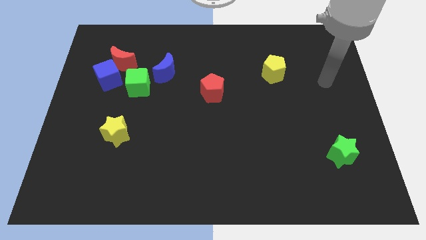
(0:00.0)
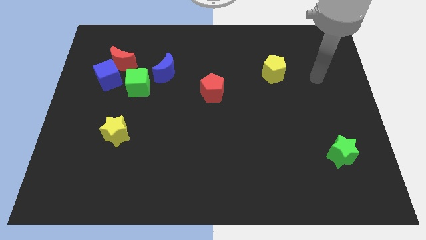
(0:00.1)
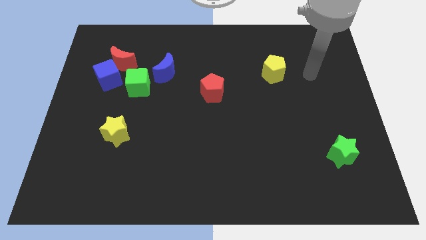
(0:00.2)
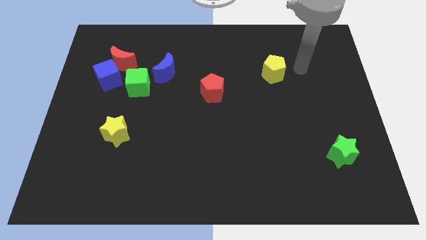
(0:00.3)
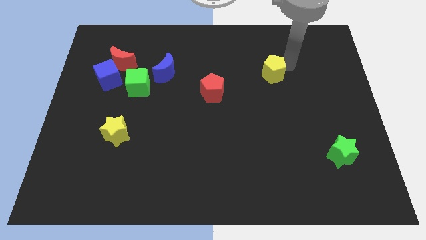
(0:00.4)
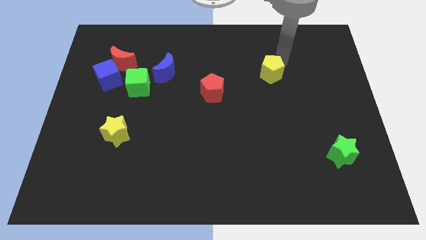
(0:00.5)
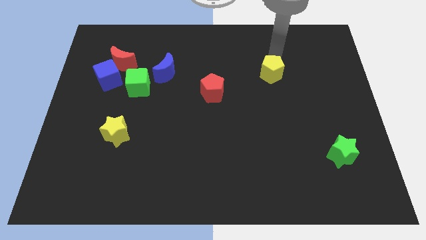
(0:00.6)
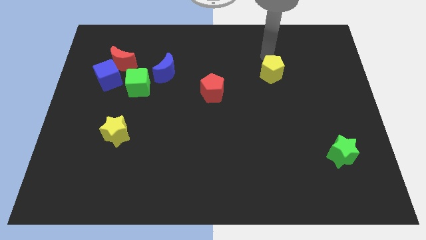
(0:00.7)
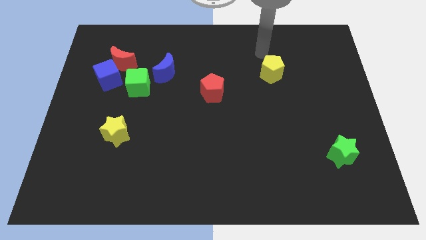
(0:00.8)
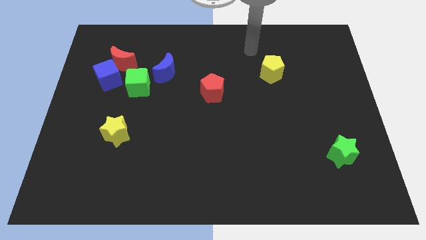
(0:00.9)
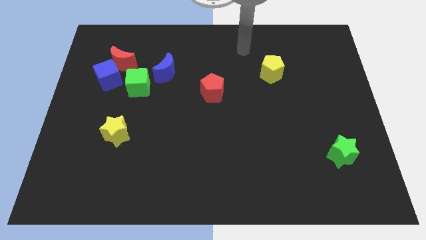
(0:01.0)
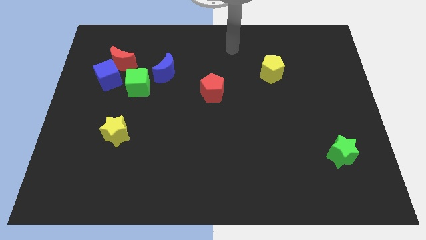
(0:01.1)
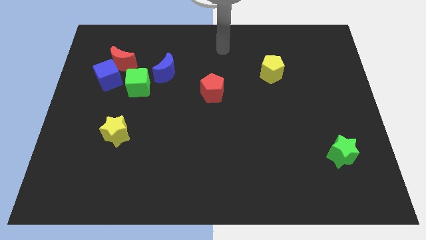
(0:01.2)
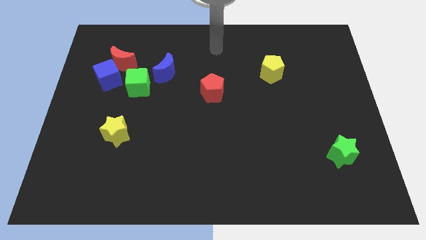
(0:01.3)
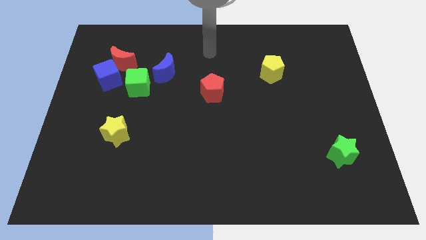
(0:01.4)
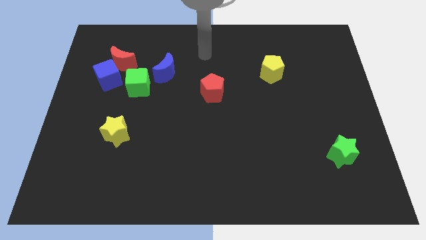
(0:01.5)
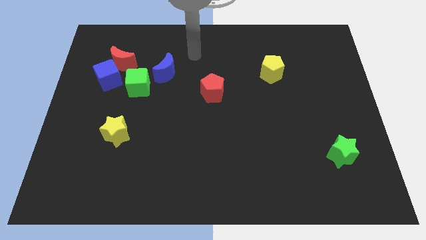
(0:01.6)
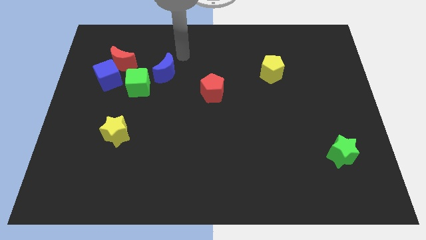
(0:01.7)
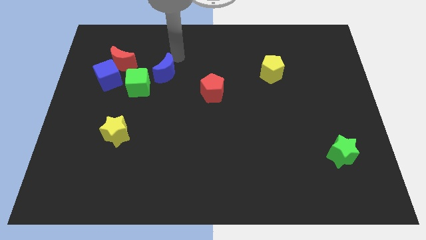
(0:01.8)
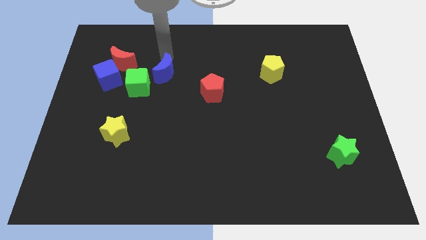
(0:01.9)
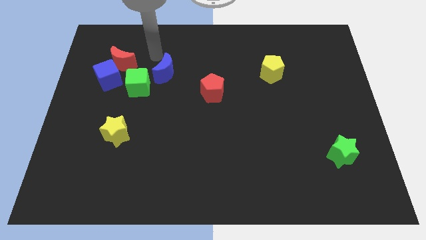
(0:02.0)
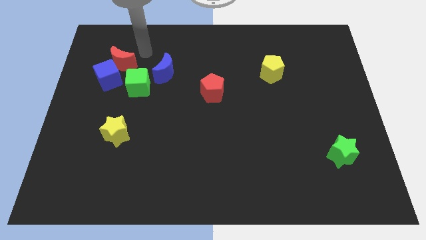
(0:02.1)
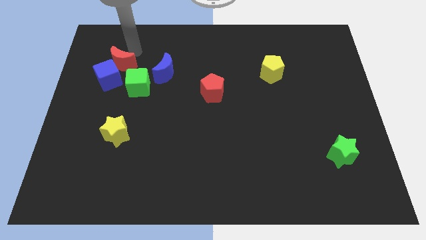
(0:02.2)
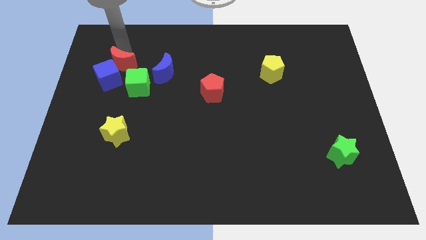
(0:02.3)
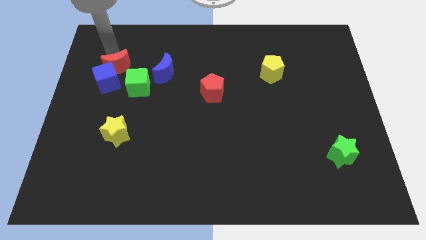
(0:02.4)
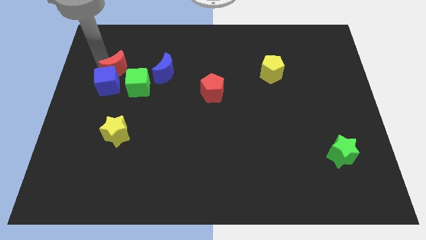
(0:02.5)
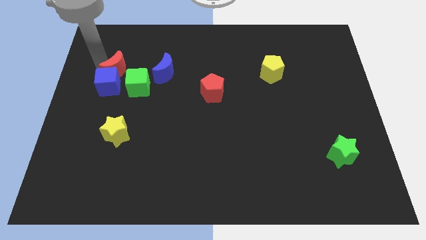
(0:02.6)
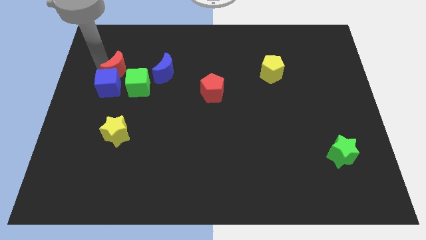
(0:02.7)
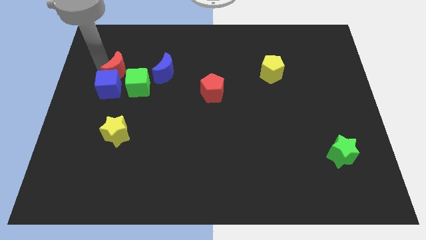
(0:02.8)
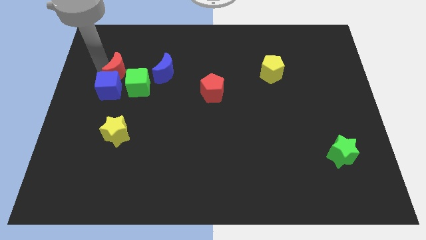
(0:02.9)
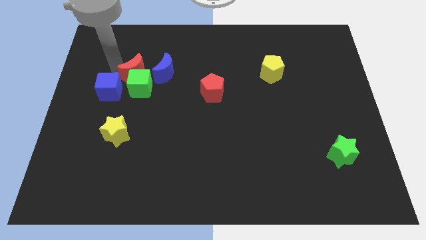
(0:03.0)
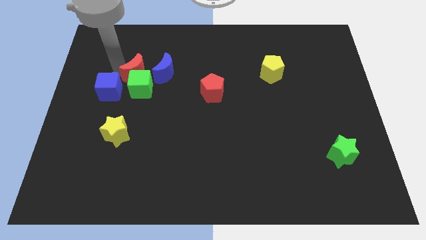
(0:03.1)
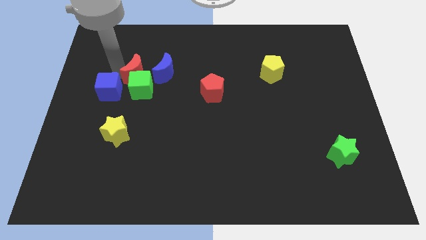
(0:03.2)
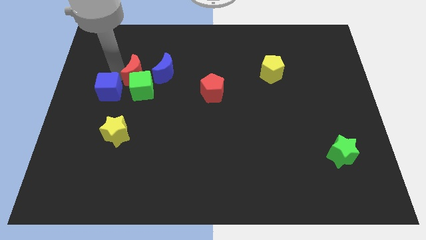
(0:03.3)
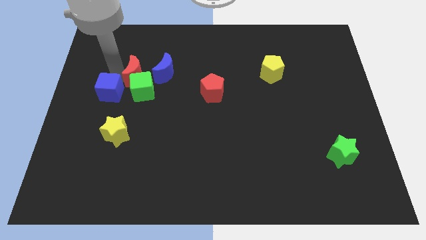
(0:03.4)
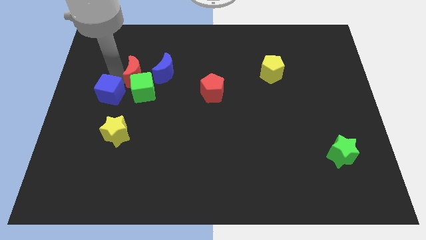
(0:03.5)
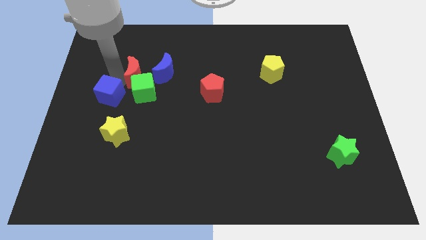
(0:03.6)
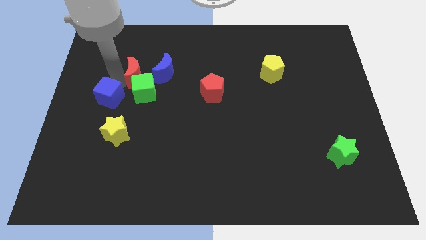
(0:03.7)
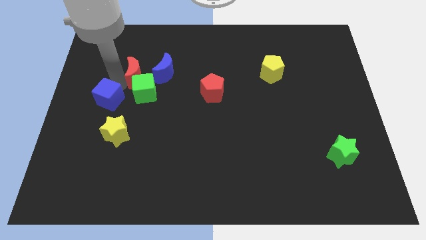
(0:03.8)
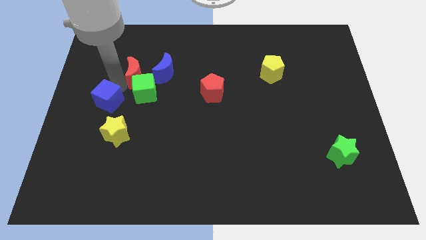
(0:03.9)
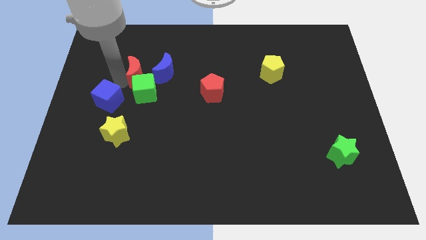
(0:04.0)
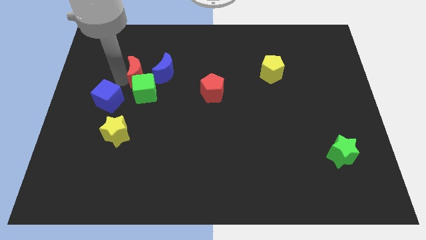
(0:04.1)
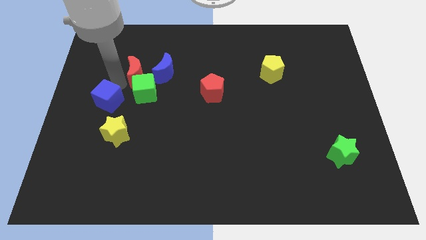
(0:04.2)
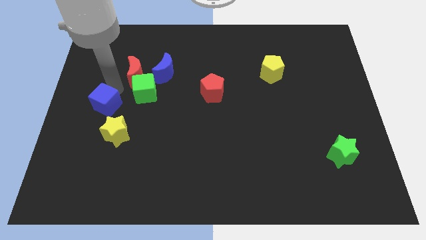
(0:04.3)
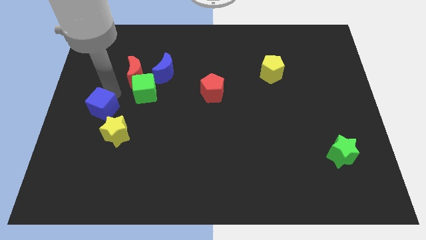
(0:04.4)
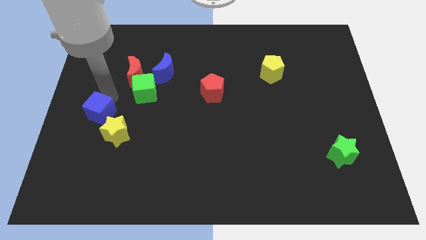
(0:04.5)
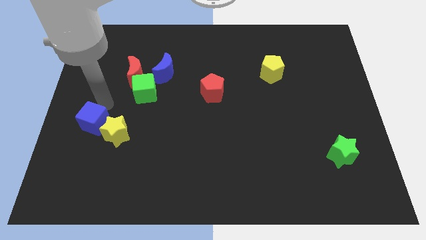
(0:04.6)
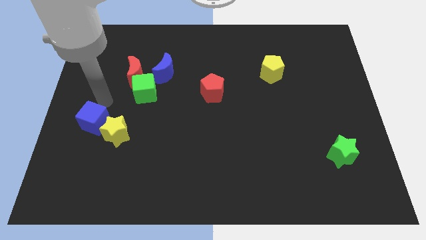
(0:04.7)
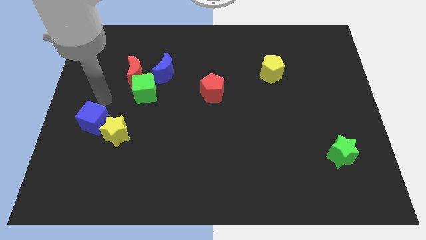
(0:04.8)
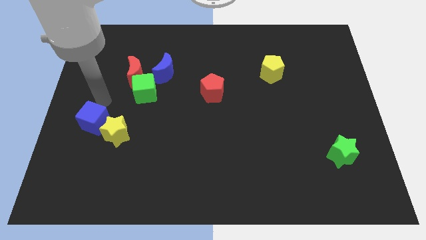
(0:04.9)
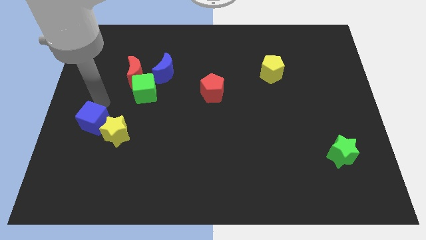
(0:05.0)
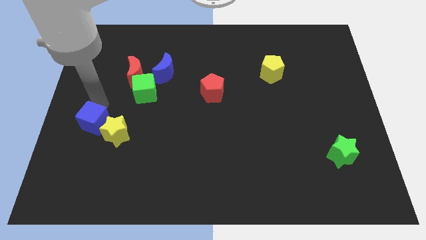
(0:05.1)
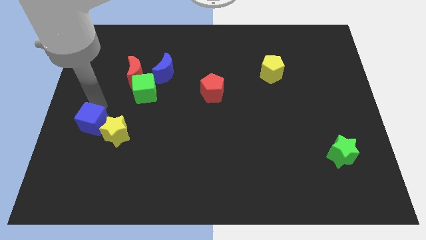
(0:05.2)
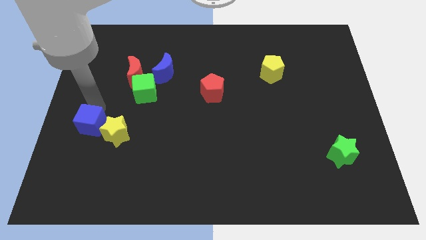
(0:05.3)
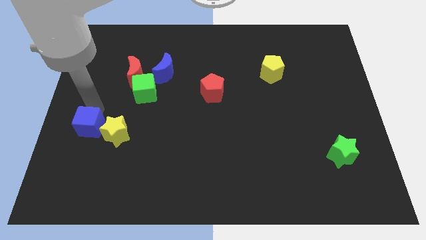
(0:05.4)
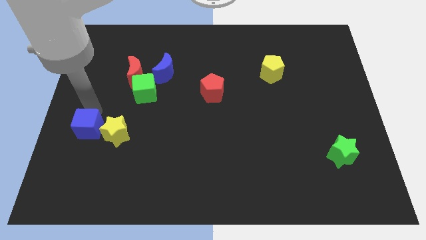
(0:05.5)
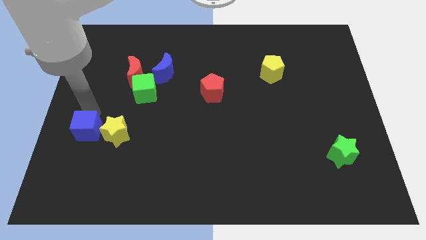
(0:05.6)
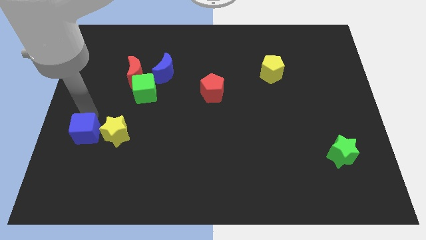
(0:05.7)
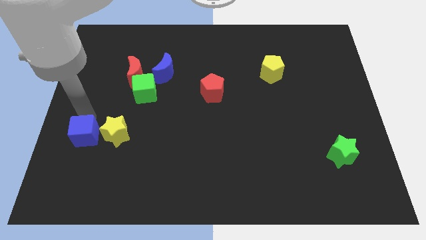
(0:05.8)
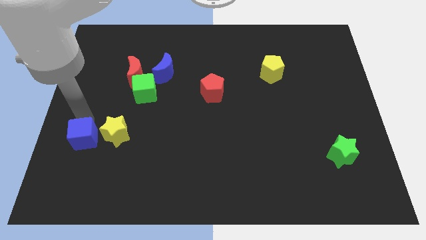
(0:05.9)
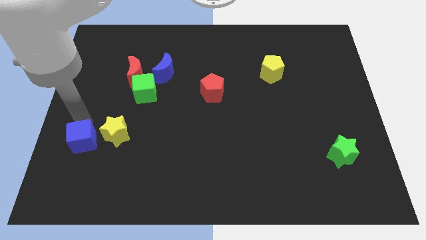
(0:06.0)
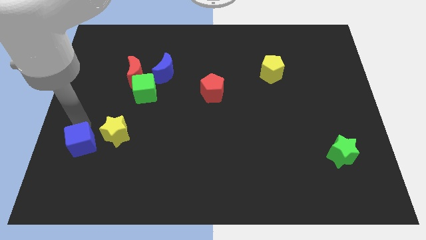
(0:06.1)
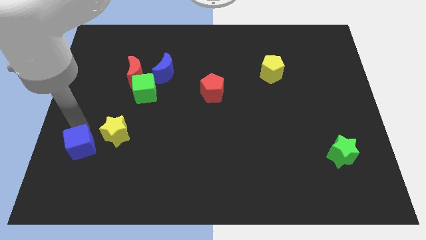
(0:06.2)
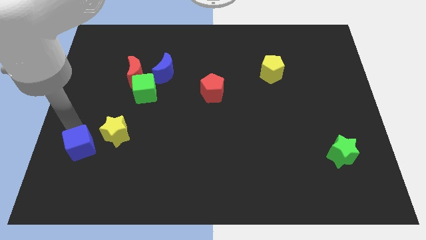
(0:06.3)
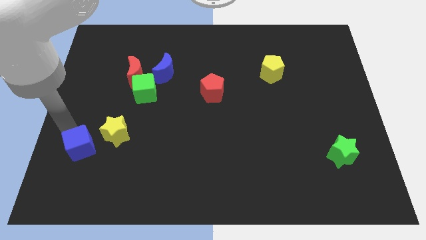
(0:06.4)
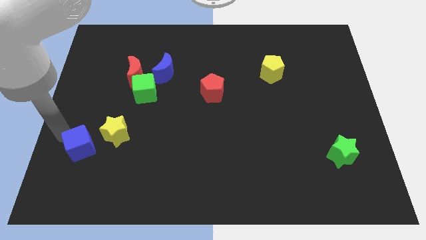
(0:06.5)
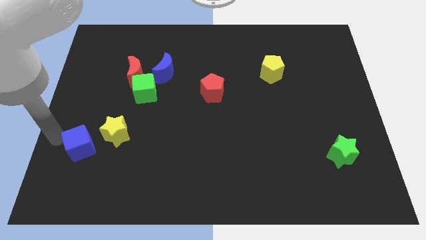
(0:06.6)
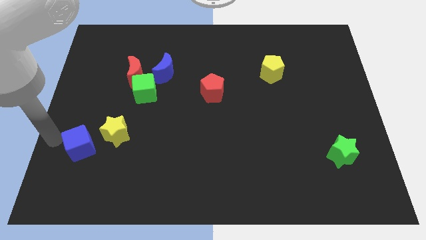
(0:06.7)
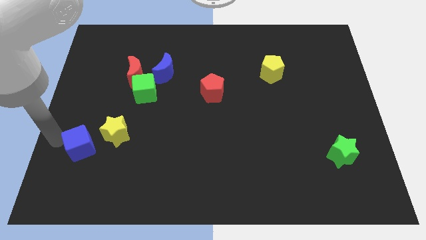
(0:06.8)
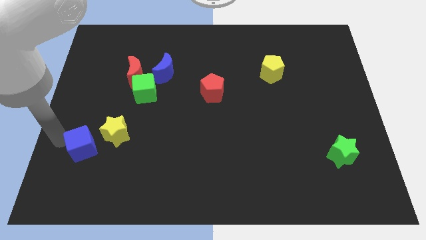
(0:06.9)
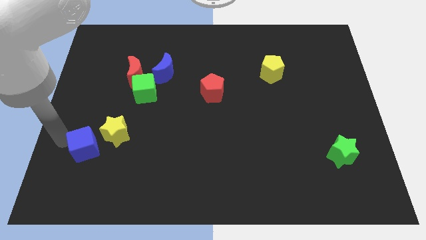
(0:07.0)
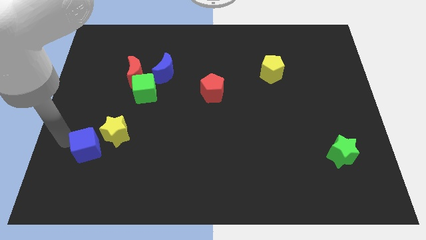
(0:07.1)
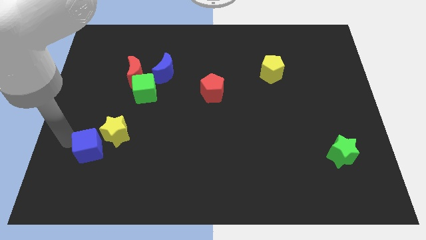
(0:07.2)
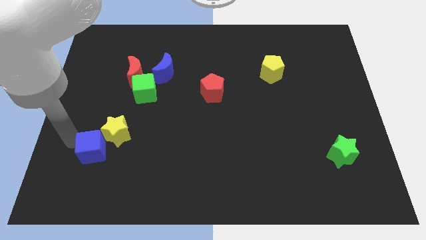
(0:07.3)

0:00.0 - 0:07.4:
slide the blue cube to the bottom of the yellow star
